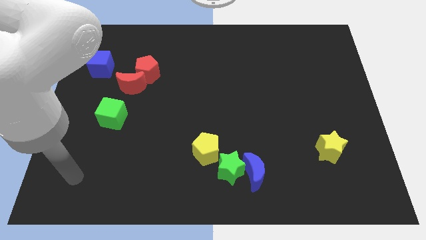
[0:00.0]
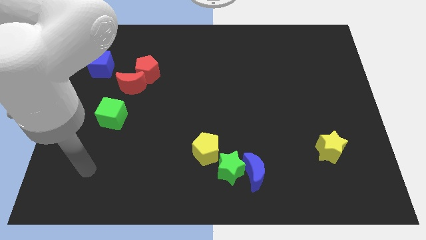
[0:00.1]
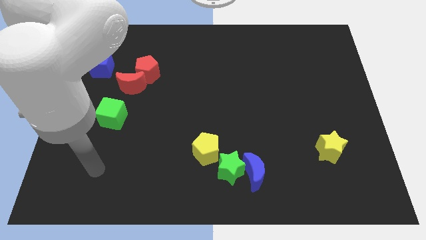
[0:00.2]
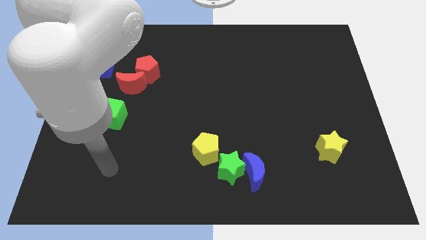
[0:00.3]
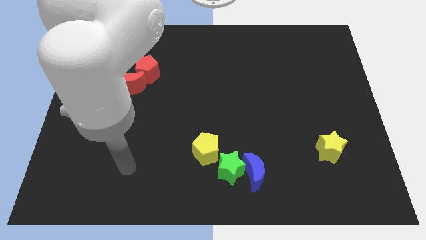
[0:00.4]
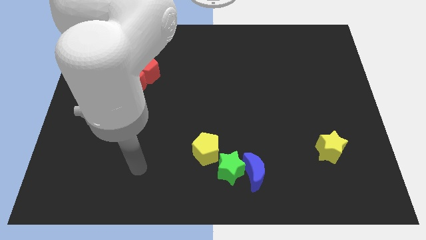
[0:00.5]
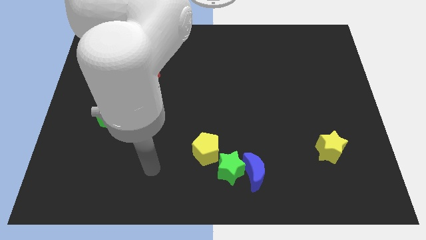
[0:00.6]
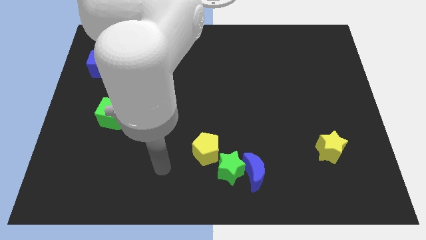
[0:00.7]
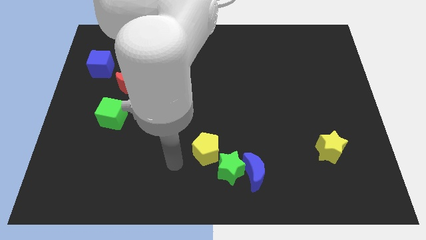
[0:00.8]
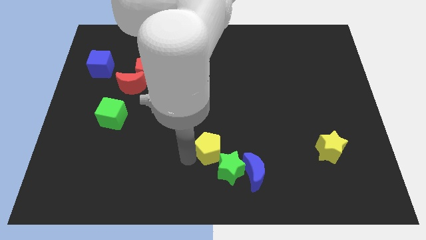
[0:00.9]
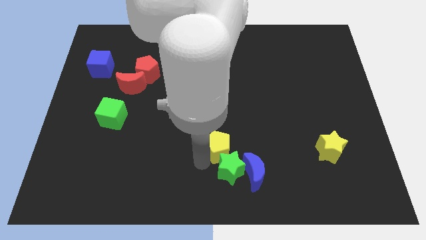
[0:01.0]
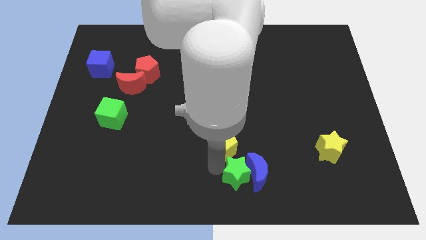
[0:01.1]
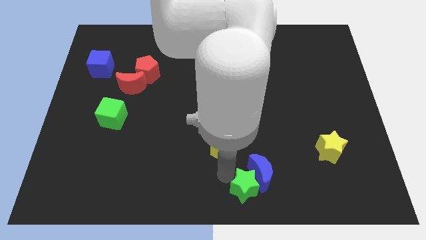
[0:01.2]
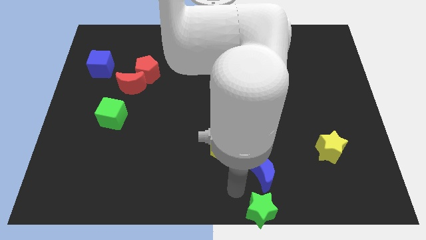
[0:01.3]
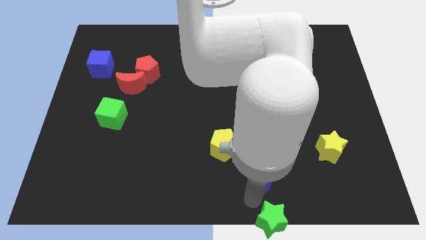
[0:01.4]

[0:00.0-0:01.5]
move the blue moon away from the green star

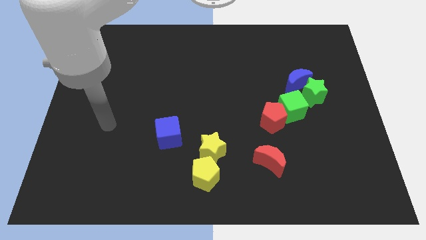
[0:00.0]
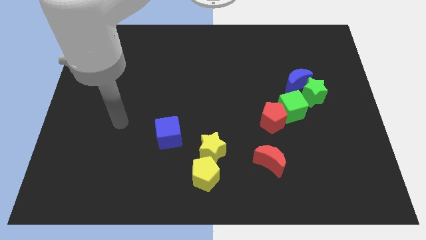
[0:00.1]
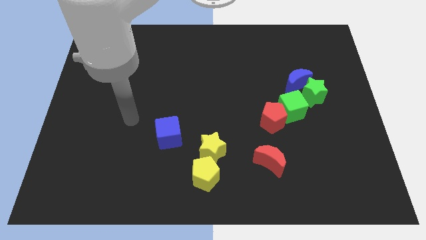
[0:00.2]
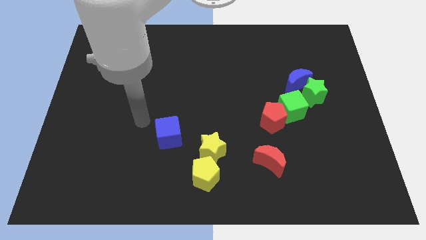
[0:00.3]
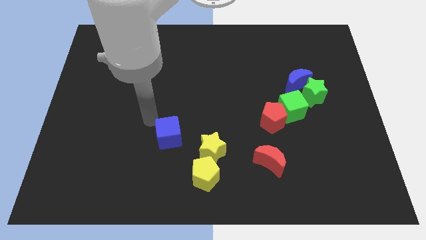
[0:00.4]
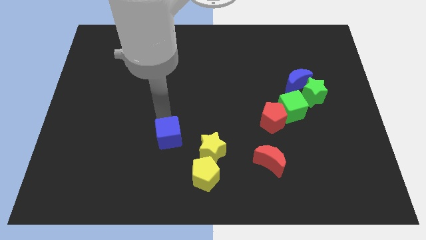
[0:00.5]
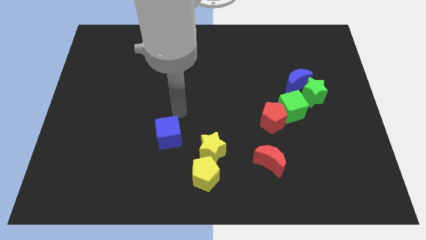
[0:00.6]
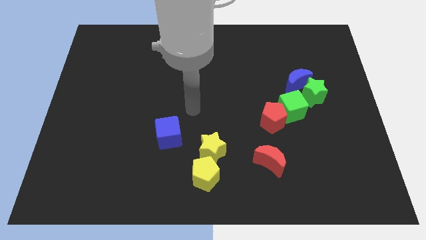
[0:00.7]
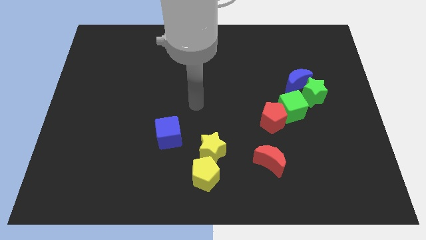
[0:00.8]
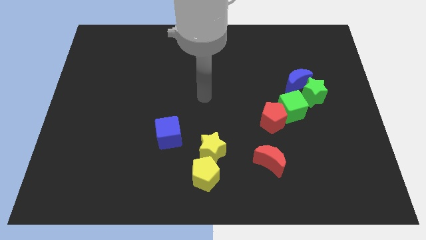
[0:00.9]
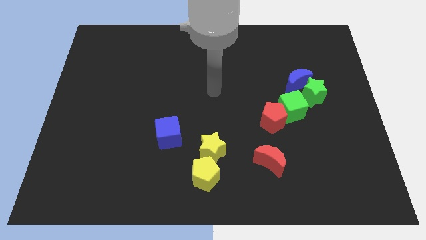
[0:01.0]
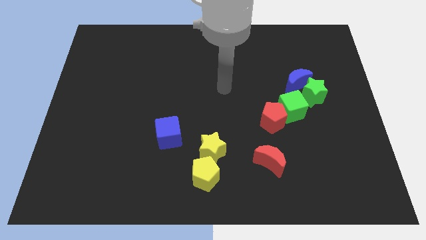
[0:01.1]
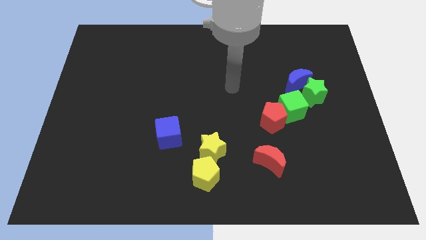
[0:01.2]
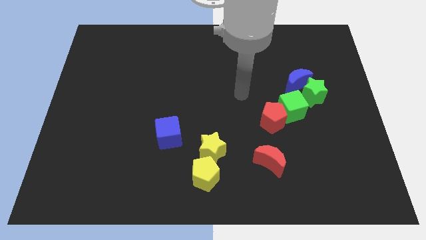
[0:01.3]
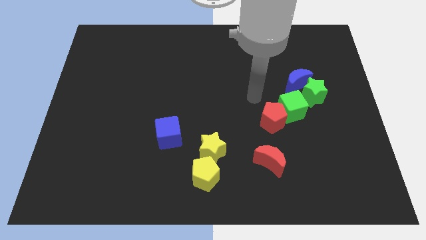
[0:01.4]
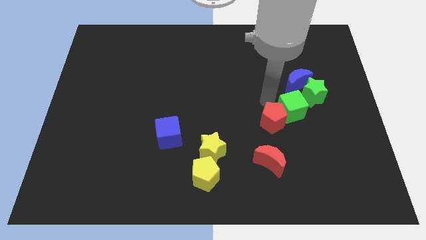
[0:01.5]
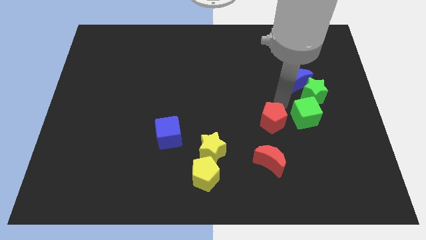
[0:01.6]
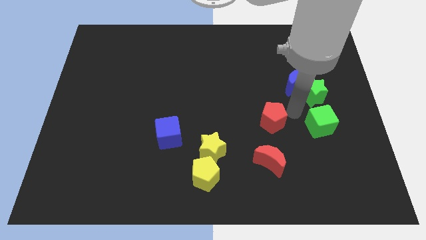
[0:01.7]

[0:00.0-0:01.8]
separate the red pentagon from the green cube

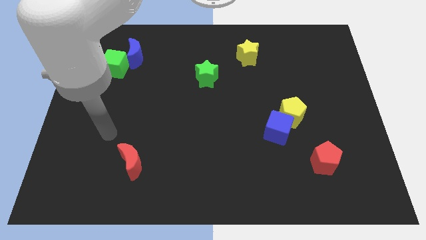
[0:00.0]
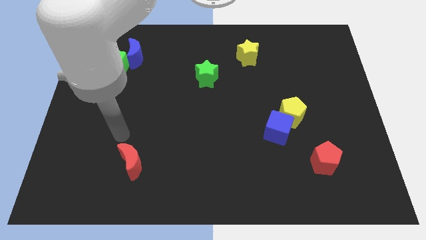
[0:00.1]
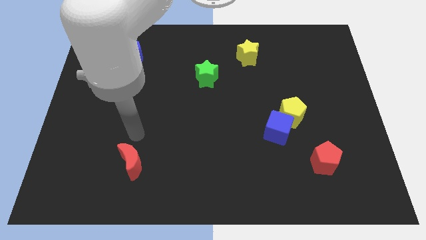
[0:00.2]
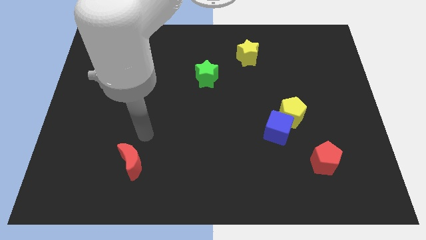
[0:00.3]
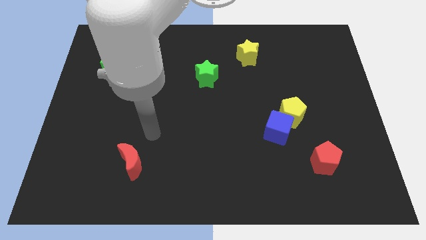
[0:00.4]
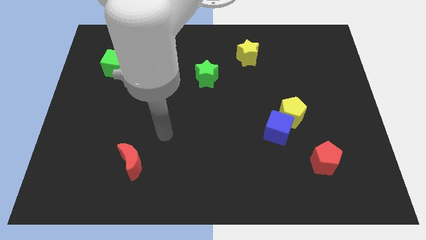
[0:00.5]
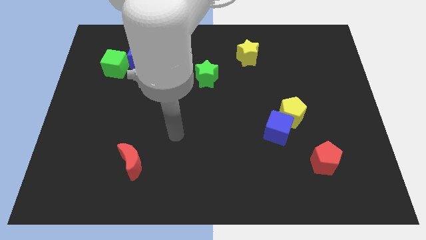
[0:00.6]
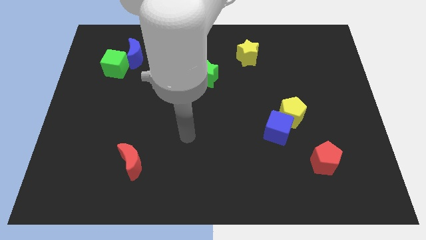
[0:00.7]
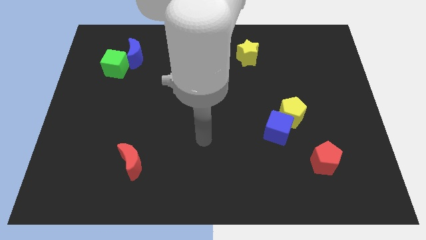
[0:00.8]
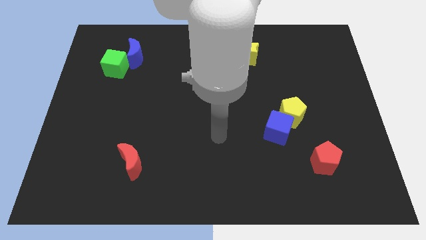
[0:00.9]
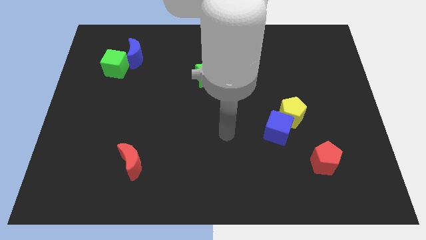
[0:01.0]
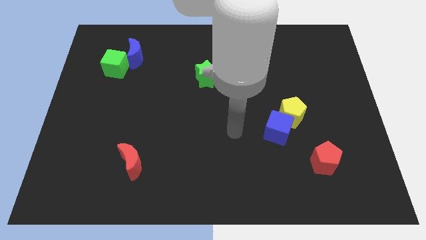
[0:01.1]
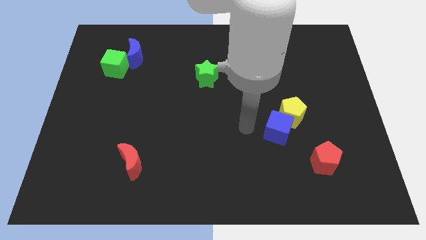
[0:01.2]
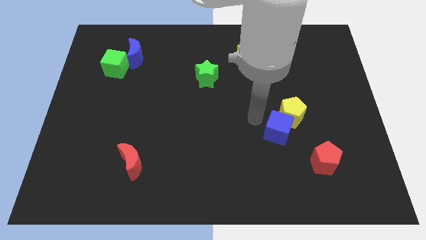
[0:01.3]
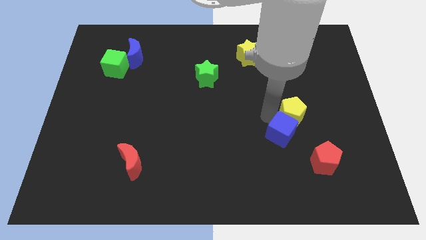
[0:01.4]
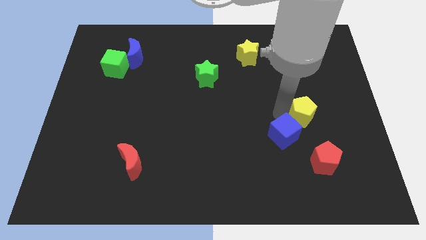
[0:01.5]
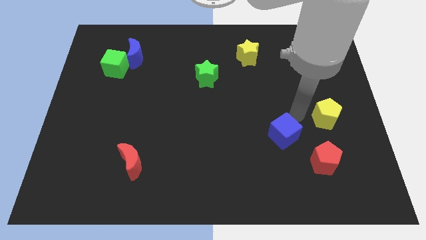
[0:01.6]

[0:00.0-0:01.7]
separate the blue cube from the yellow pentagon

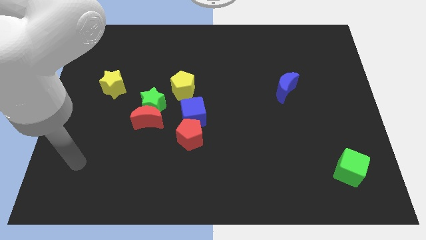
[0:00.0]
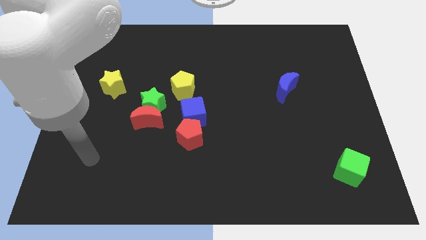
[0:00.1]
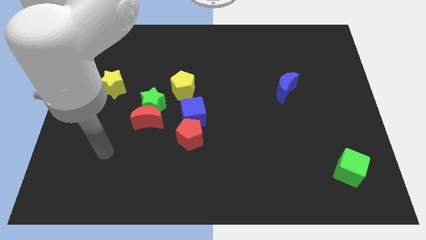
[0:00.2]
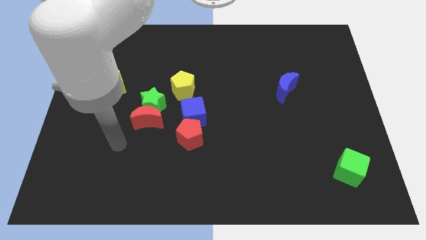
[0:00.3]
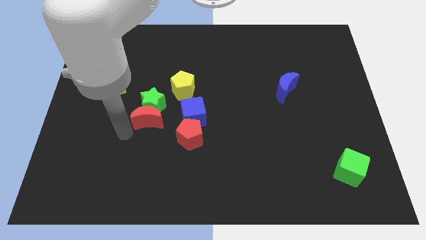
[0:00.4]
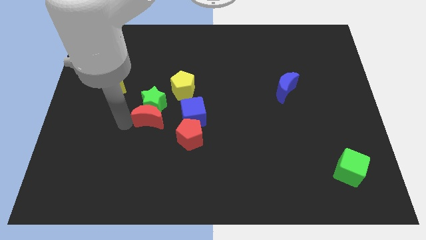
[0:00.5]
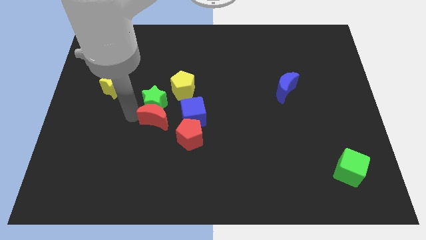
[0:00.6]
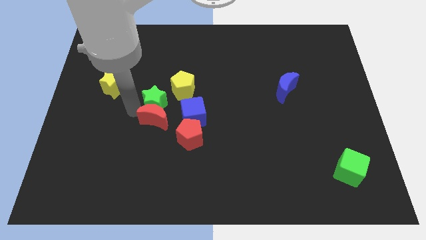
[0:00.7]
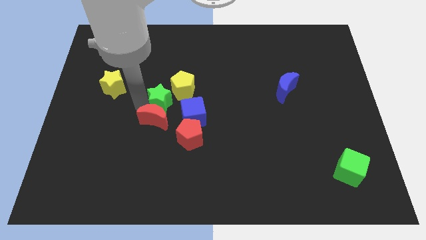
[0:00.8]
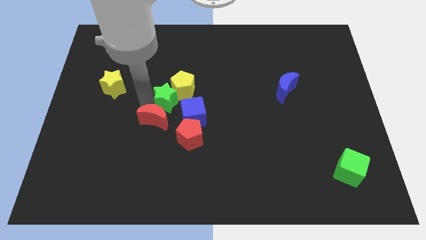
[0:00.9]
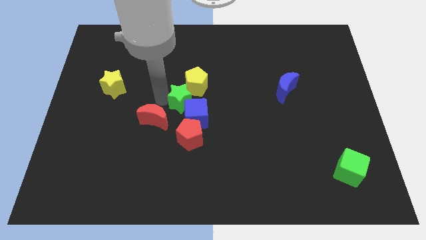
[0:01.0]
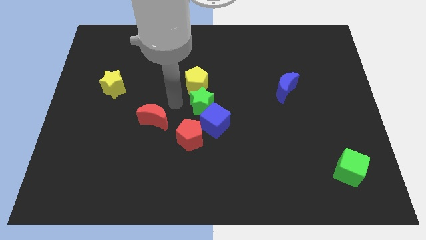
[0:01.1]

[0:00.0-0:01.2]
pull the red moon apart from the green star

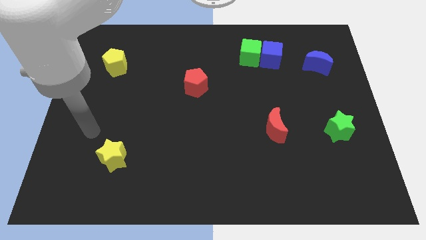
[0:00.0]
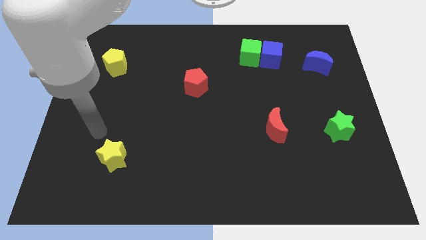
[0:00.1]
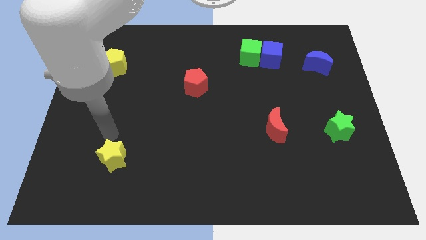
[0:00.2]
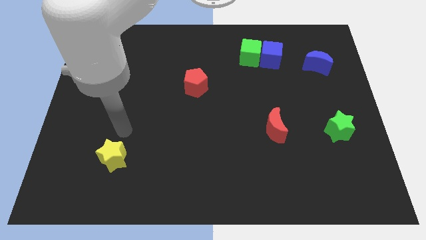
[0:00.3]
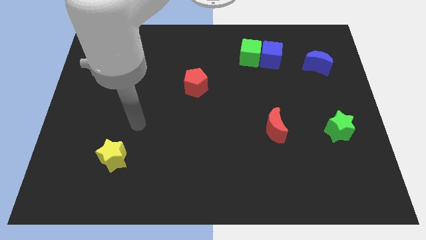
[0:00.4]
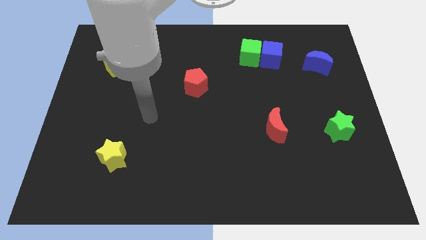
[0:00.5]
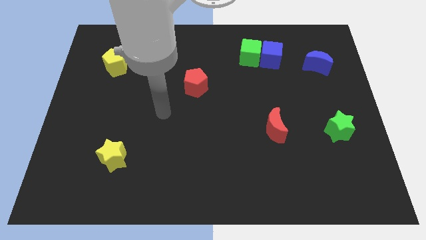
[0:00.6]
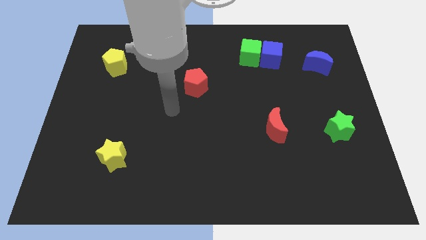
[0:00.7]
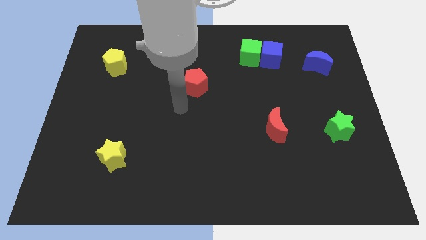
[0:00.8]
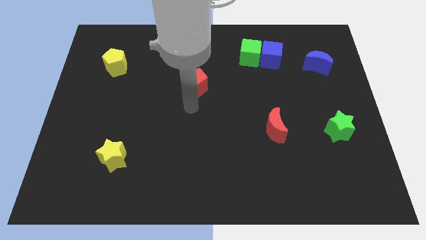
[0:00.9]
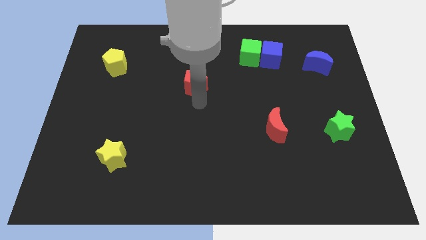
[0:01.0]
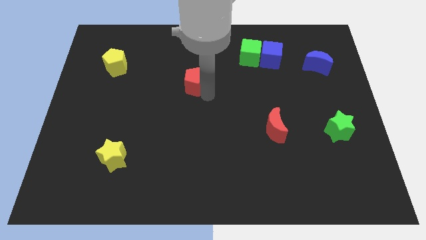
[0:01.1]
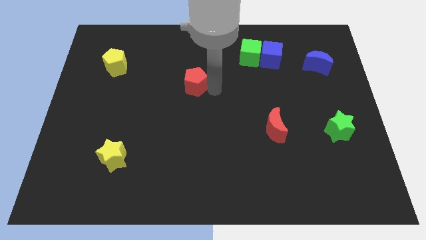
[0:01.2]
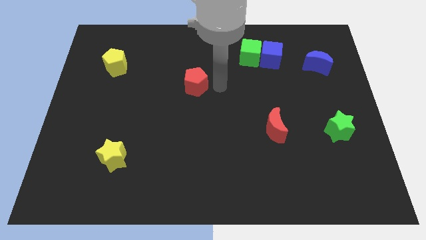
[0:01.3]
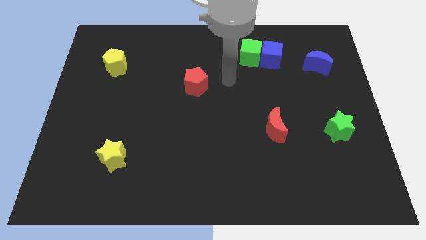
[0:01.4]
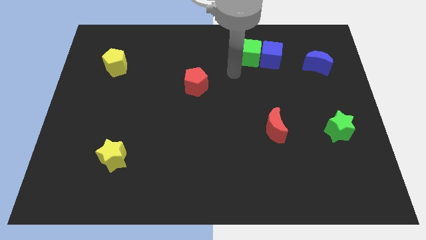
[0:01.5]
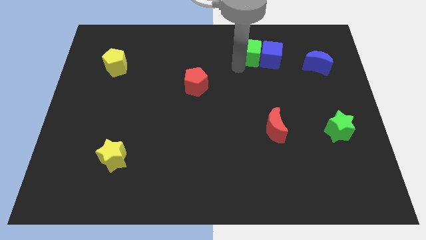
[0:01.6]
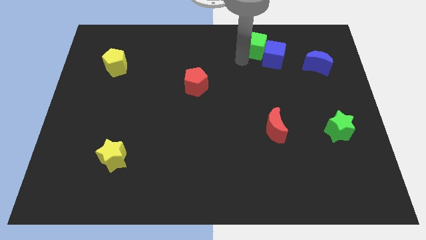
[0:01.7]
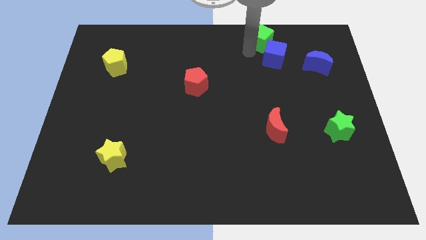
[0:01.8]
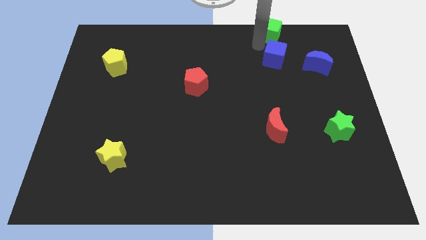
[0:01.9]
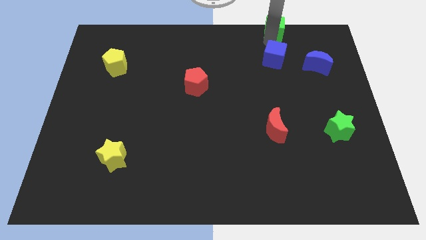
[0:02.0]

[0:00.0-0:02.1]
move the blue cube away from the green cube

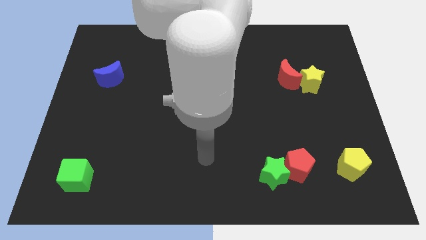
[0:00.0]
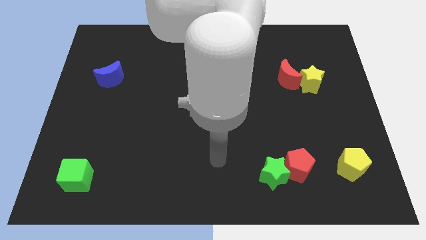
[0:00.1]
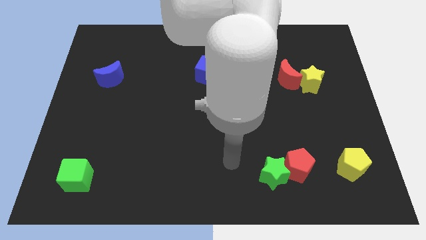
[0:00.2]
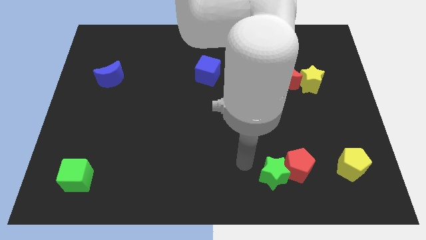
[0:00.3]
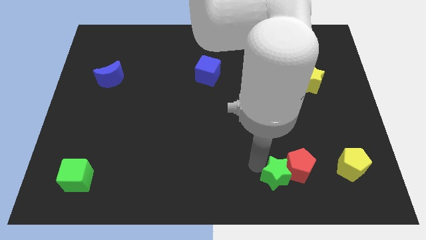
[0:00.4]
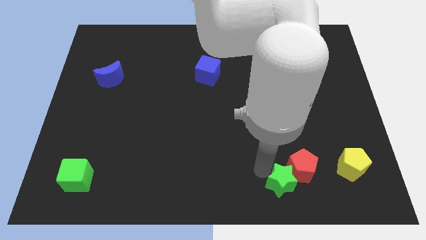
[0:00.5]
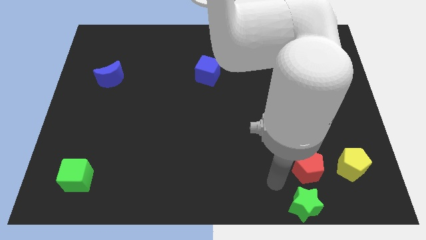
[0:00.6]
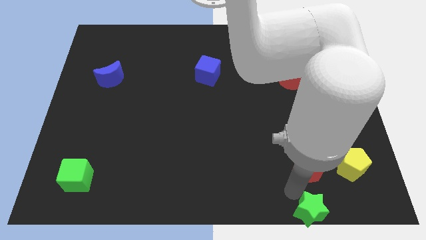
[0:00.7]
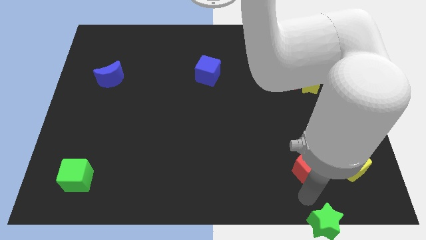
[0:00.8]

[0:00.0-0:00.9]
separate the red pentagon from the green star

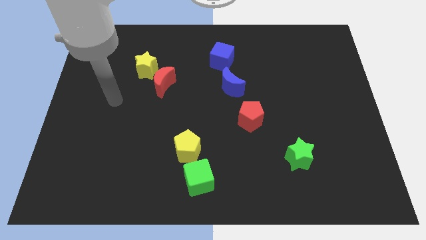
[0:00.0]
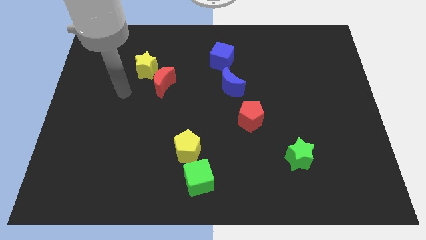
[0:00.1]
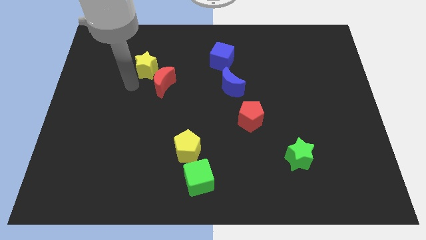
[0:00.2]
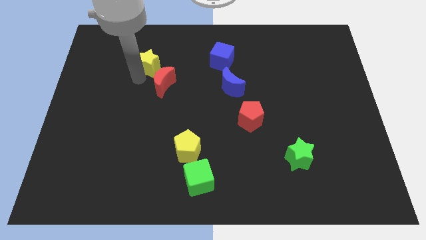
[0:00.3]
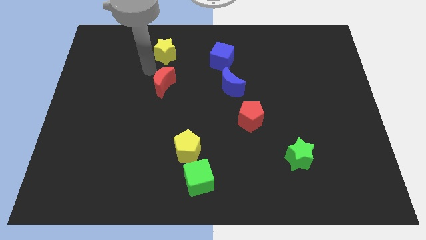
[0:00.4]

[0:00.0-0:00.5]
separate the red moon from the yellow star
